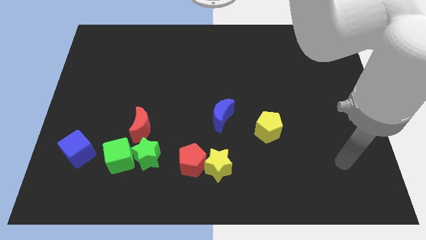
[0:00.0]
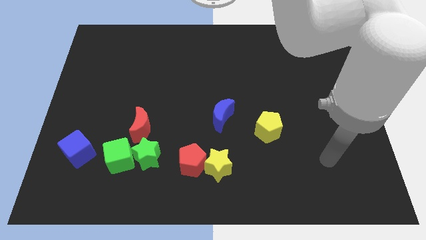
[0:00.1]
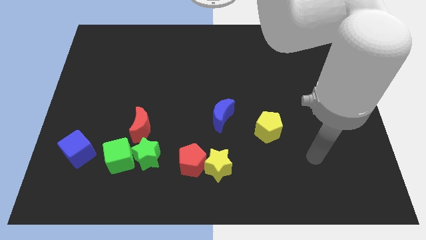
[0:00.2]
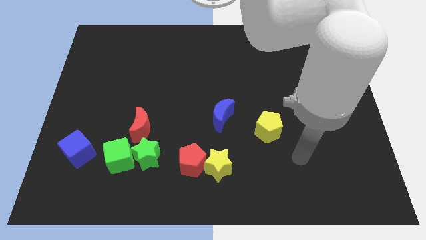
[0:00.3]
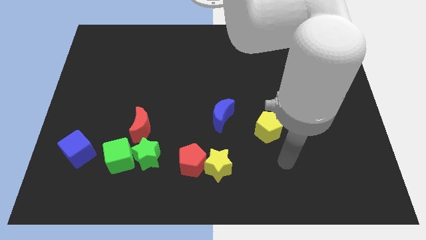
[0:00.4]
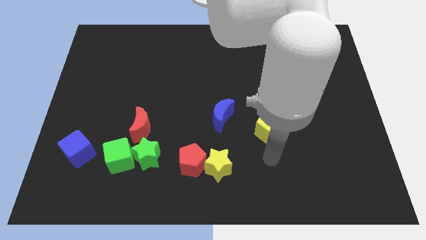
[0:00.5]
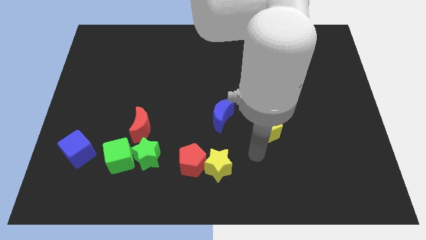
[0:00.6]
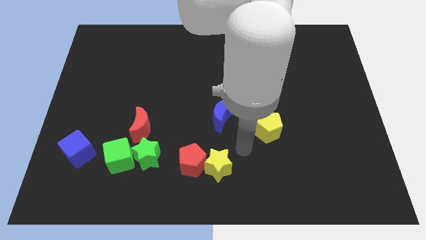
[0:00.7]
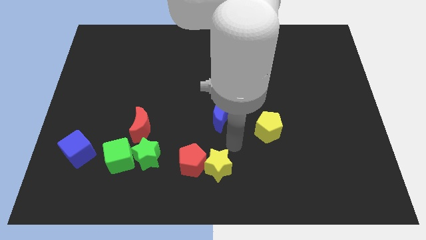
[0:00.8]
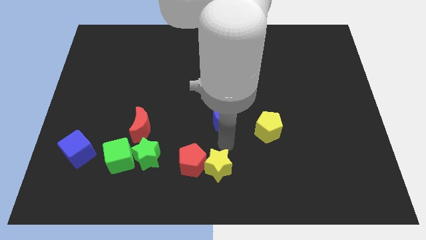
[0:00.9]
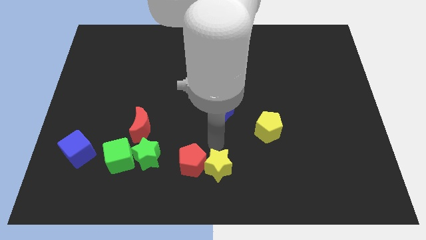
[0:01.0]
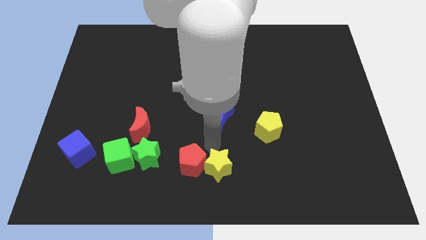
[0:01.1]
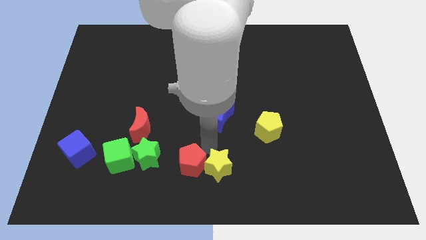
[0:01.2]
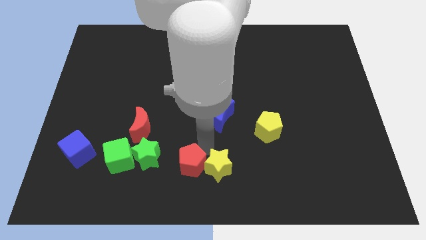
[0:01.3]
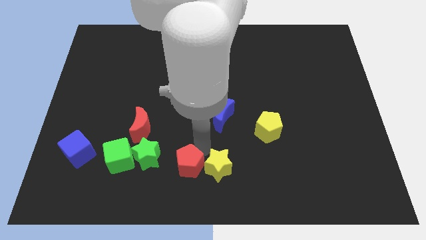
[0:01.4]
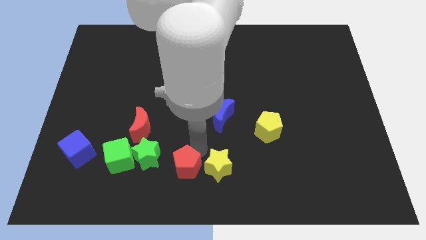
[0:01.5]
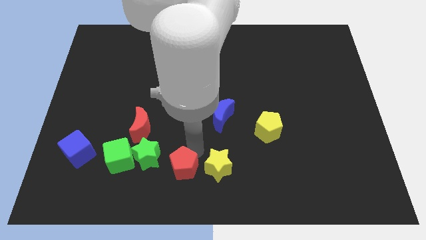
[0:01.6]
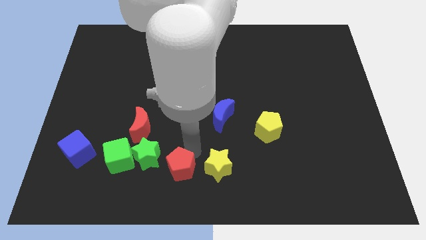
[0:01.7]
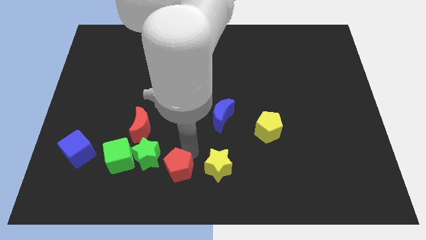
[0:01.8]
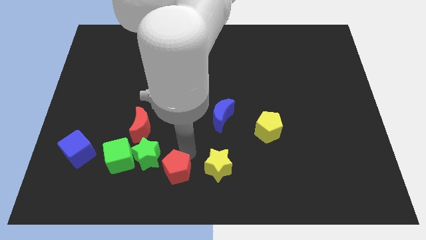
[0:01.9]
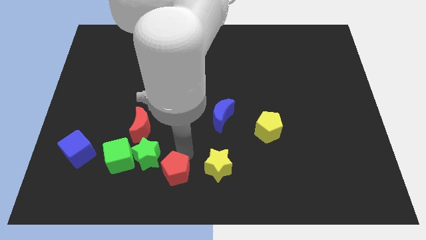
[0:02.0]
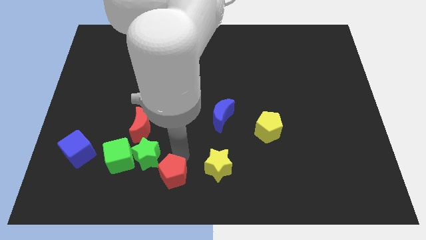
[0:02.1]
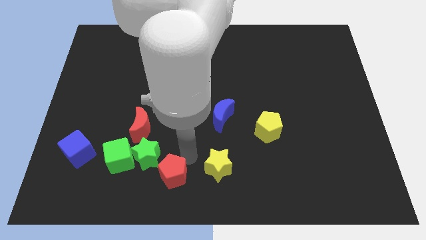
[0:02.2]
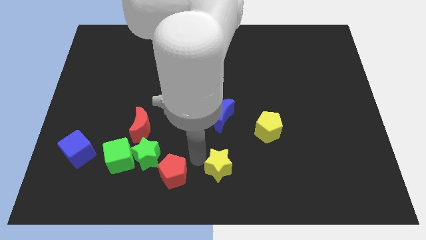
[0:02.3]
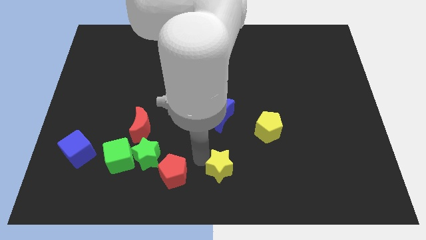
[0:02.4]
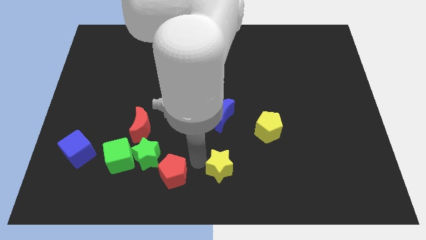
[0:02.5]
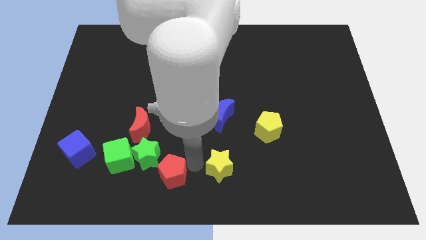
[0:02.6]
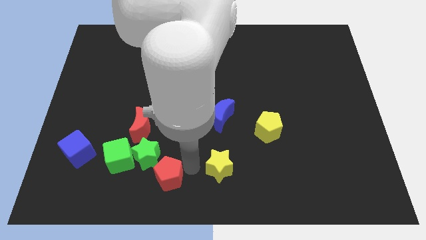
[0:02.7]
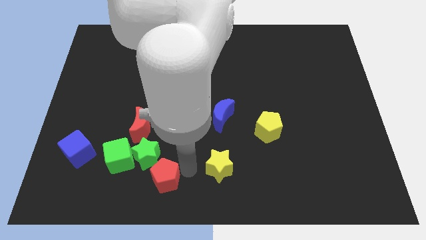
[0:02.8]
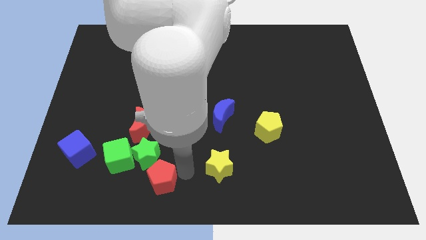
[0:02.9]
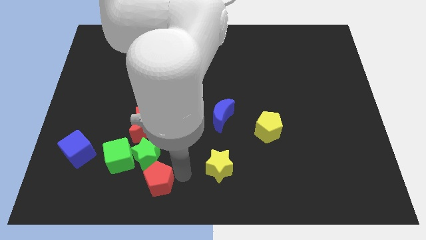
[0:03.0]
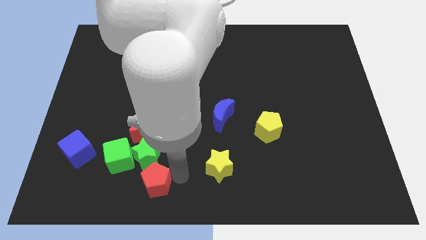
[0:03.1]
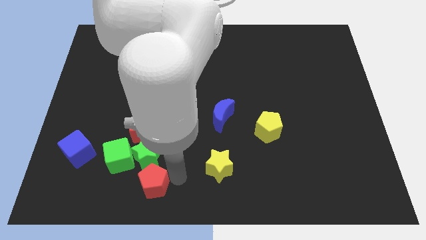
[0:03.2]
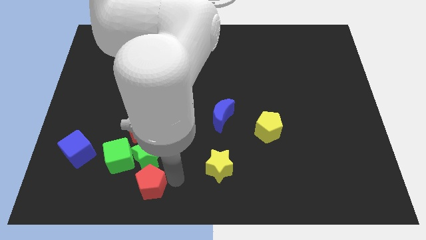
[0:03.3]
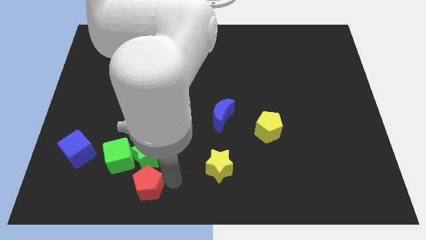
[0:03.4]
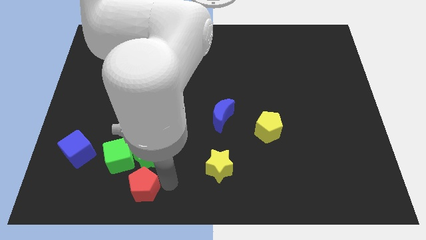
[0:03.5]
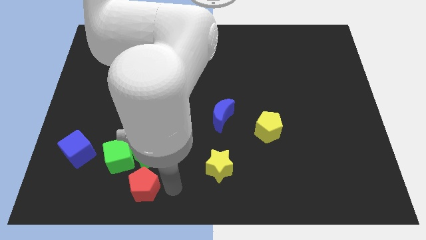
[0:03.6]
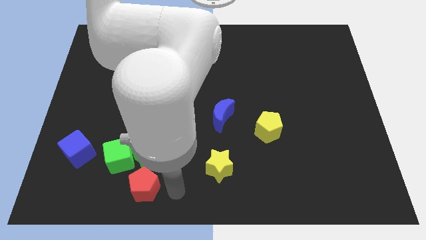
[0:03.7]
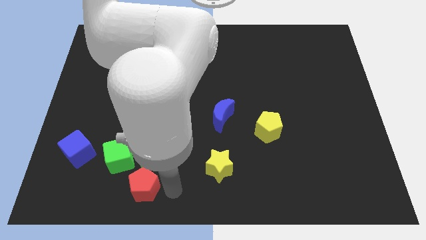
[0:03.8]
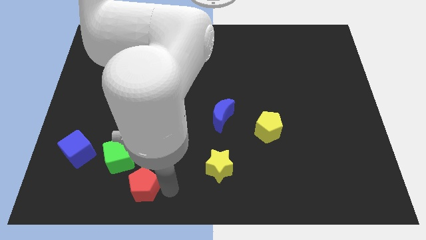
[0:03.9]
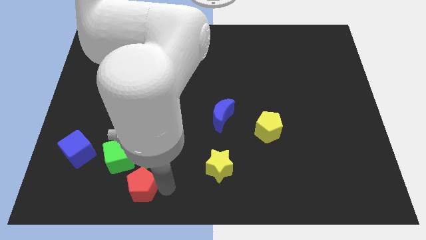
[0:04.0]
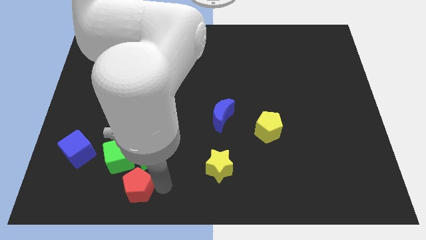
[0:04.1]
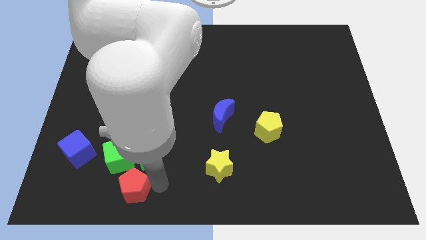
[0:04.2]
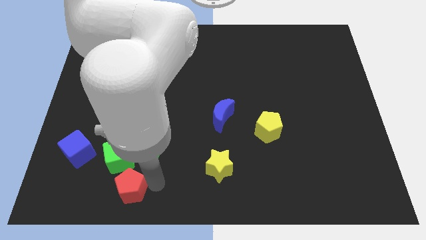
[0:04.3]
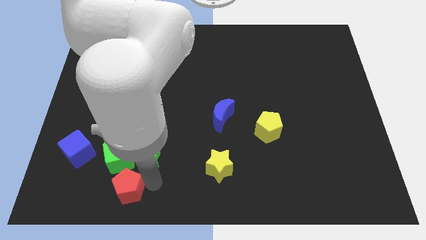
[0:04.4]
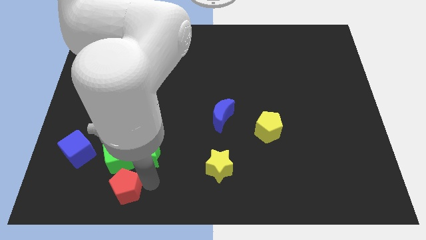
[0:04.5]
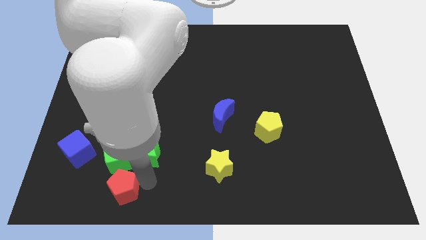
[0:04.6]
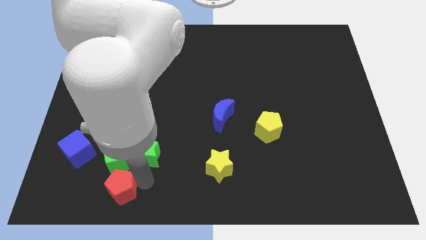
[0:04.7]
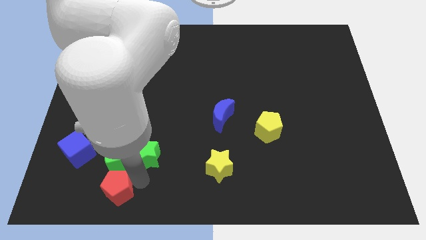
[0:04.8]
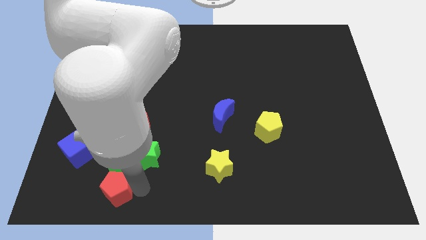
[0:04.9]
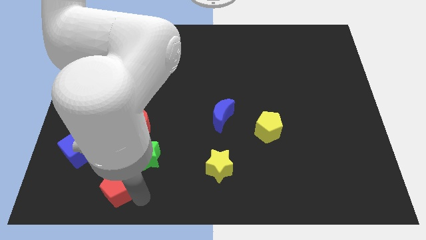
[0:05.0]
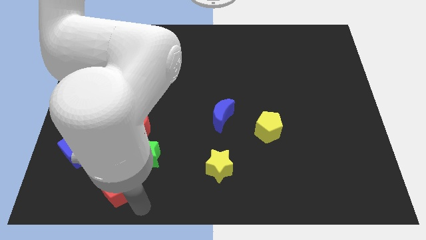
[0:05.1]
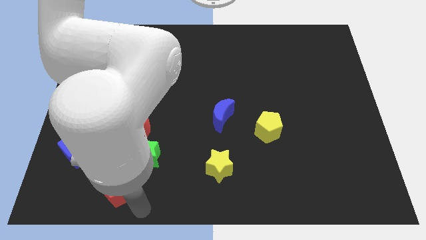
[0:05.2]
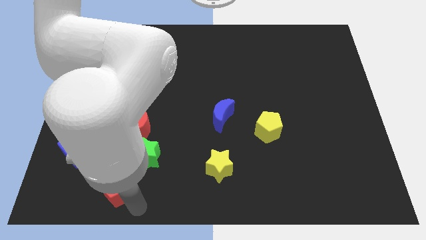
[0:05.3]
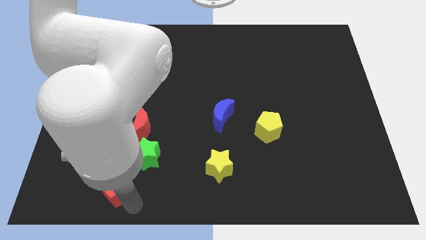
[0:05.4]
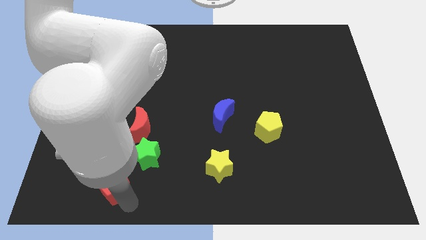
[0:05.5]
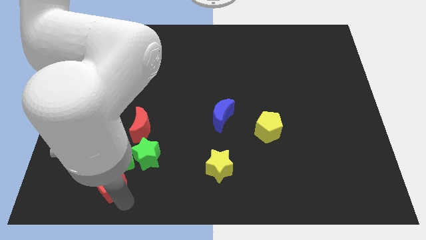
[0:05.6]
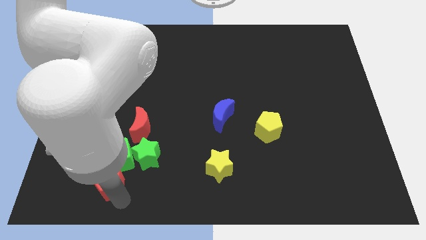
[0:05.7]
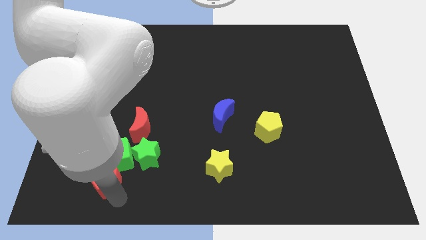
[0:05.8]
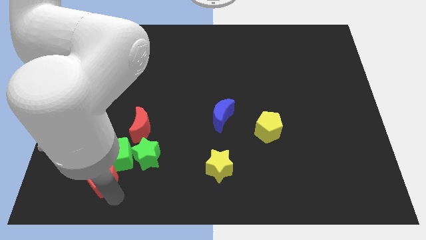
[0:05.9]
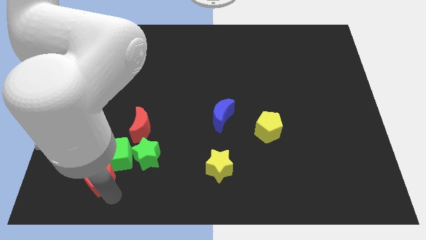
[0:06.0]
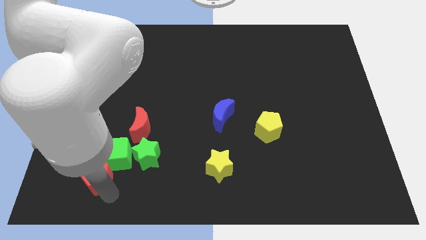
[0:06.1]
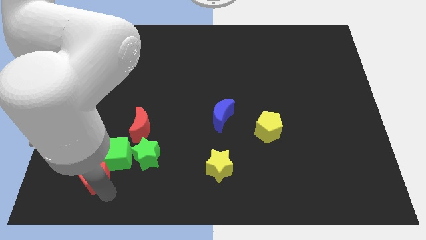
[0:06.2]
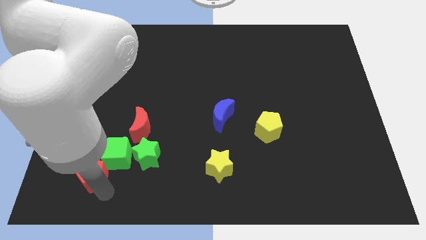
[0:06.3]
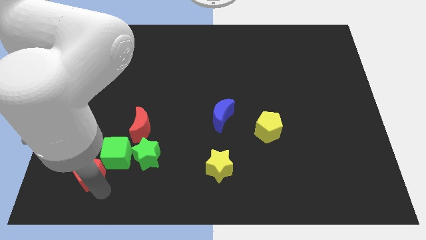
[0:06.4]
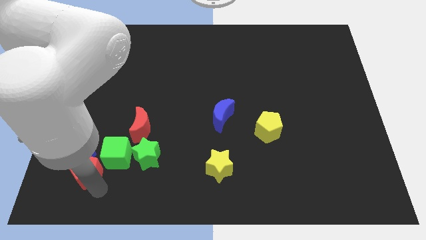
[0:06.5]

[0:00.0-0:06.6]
slide the red pentagon next to the blue cube

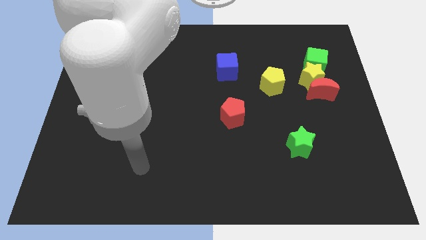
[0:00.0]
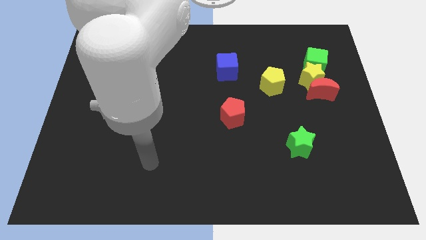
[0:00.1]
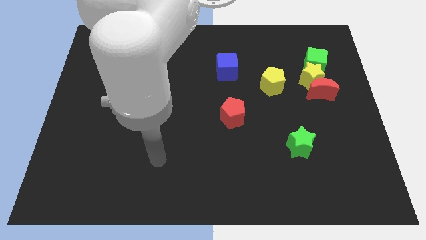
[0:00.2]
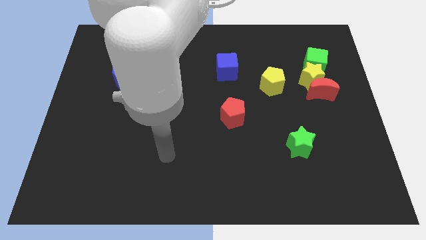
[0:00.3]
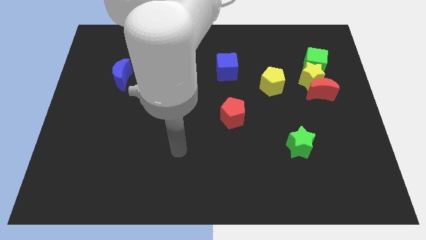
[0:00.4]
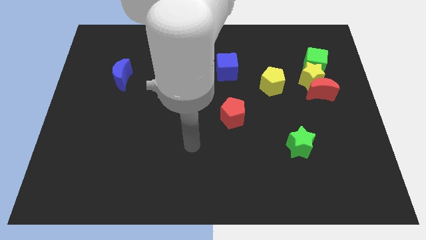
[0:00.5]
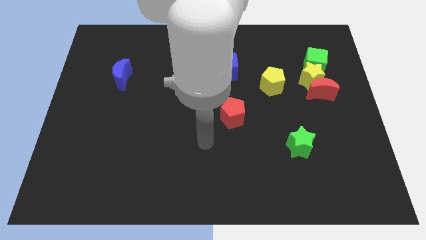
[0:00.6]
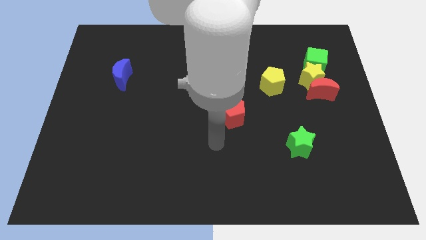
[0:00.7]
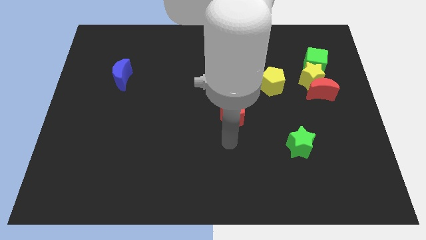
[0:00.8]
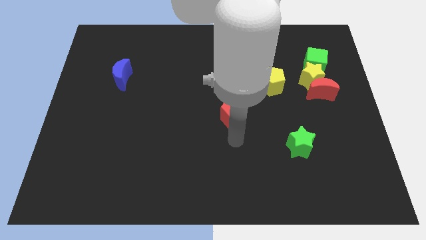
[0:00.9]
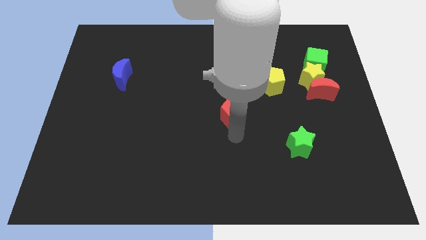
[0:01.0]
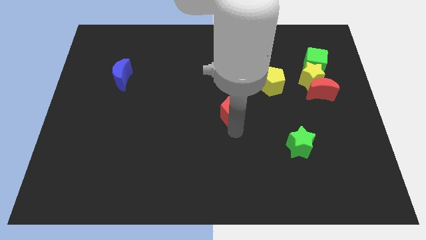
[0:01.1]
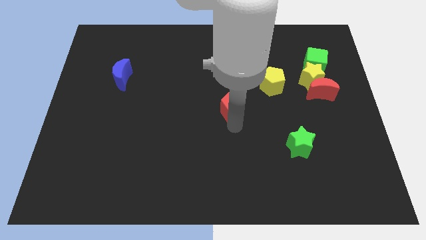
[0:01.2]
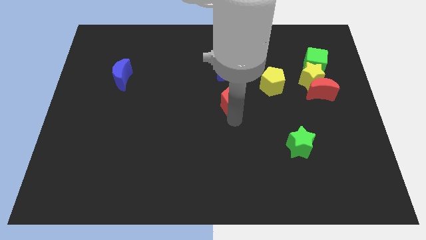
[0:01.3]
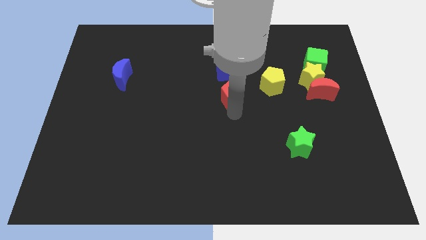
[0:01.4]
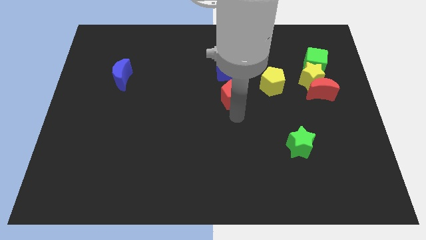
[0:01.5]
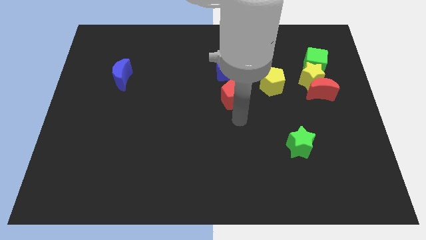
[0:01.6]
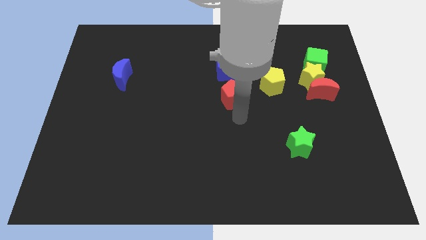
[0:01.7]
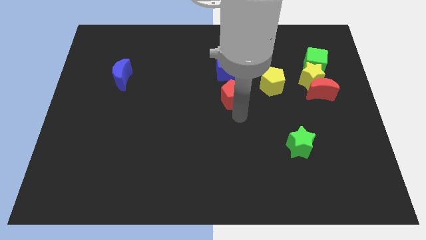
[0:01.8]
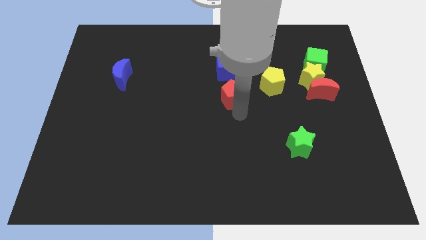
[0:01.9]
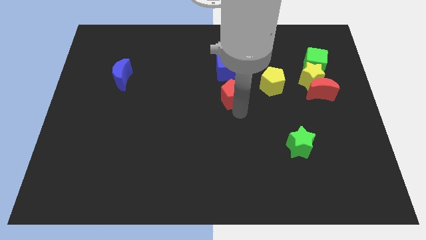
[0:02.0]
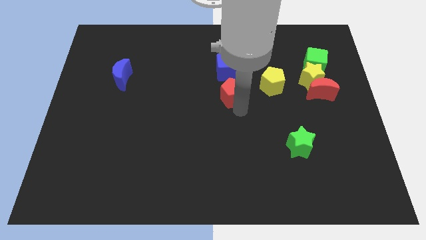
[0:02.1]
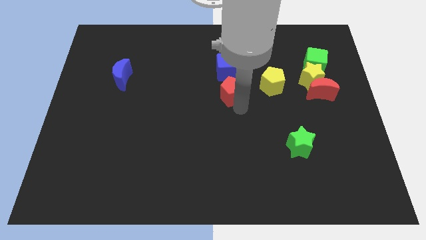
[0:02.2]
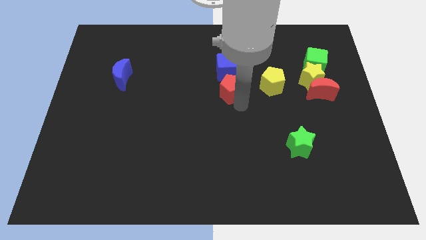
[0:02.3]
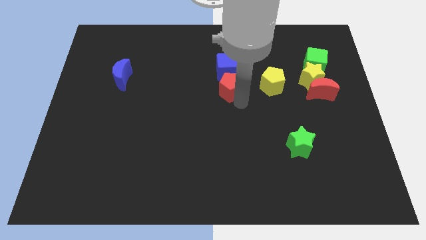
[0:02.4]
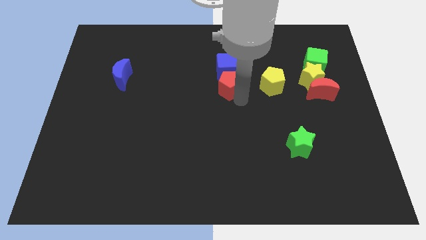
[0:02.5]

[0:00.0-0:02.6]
move the red pentagon next to the blue cube
